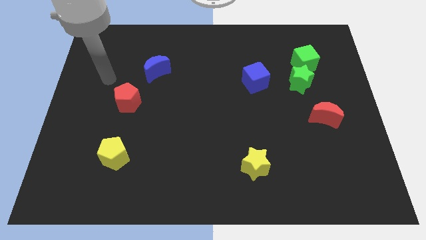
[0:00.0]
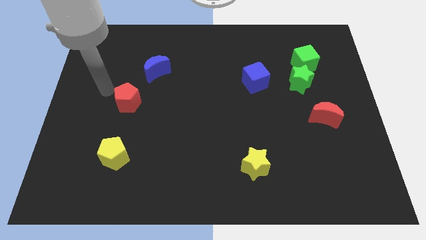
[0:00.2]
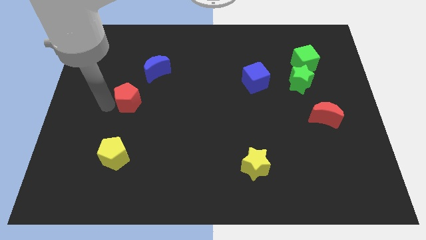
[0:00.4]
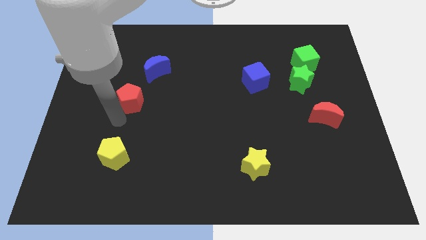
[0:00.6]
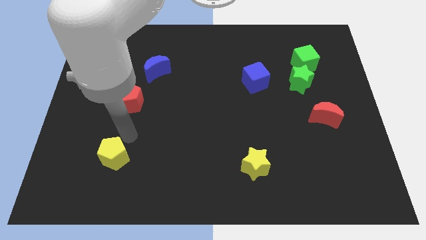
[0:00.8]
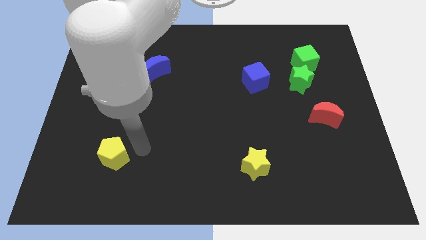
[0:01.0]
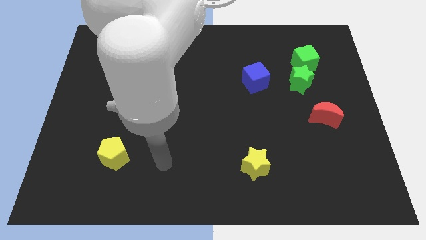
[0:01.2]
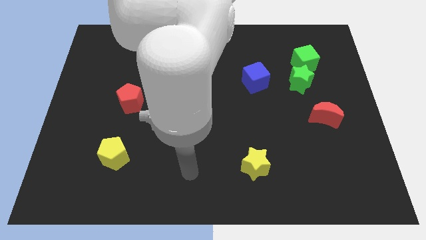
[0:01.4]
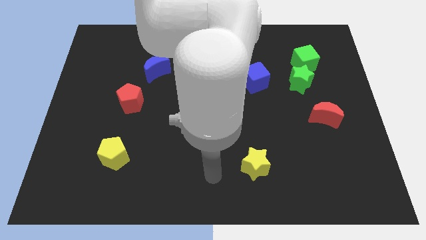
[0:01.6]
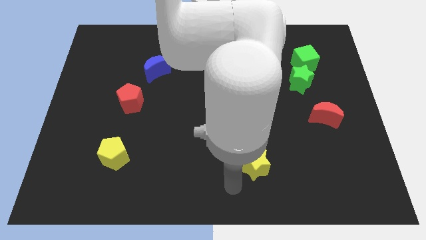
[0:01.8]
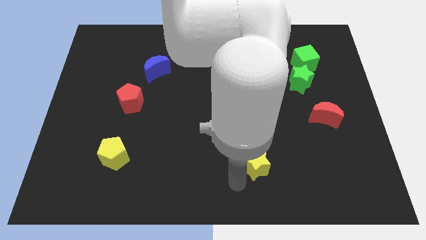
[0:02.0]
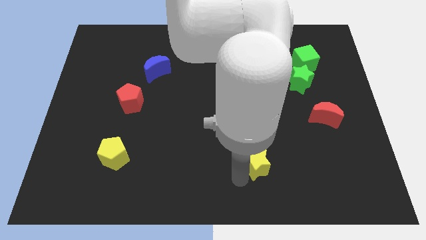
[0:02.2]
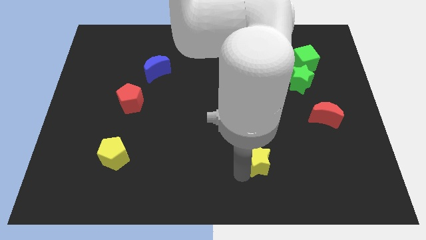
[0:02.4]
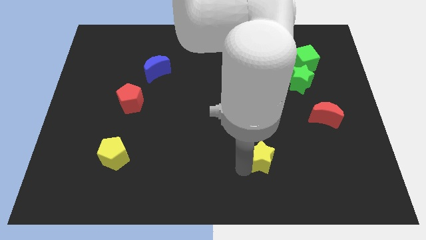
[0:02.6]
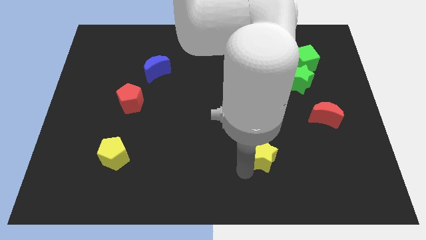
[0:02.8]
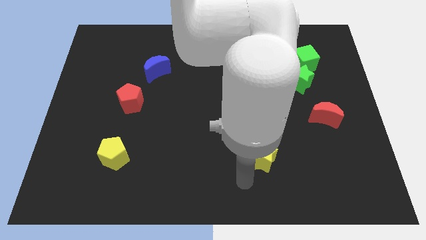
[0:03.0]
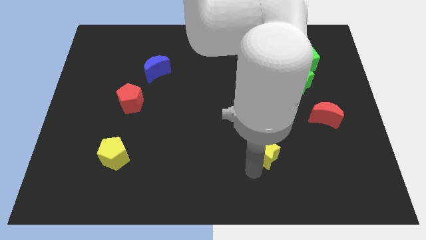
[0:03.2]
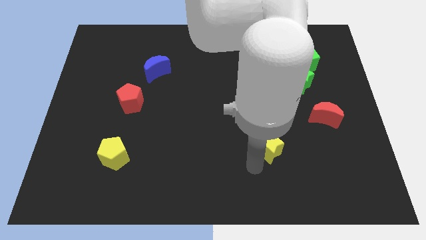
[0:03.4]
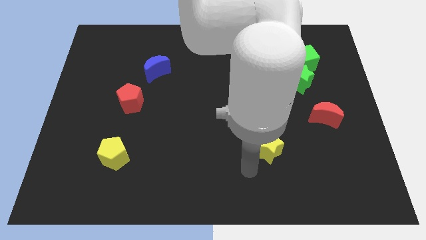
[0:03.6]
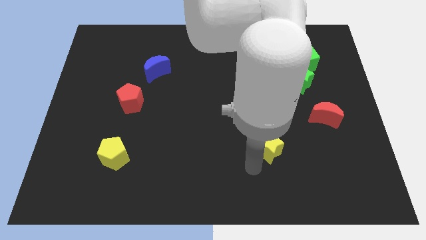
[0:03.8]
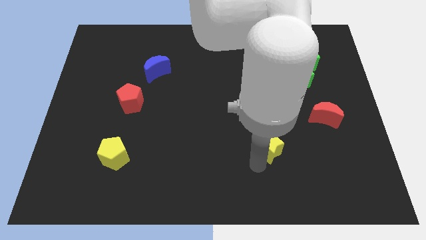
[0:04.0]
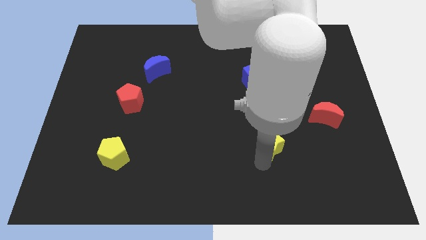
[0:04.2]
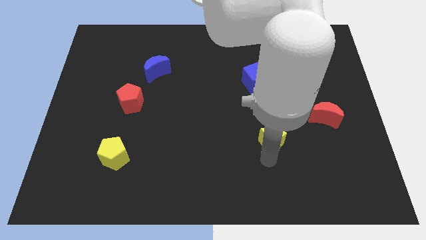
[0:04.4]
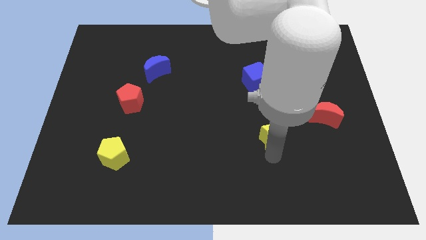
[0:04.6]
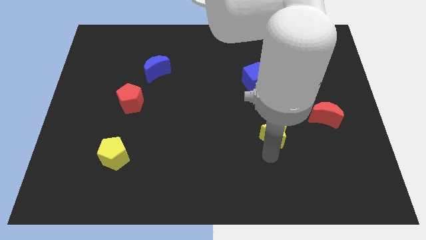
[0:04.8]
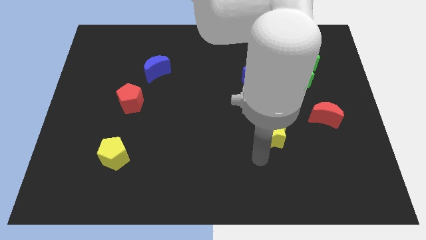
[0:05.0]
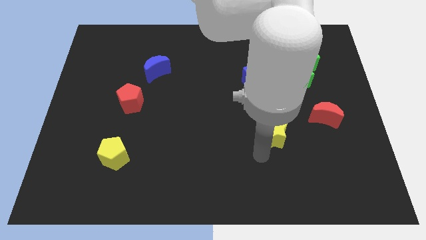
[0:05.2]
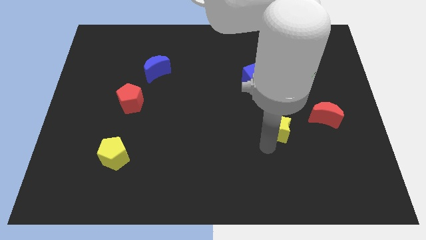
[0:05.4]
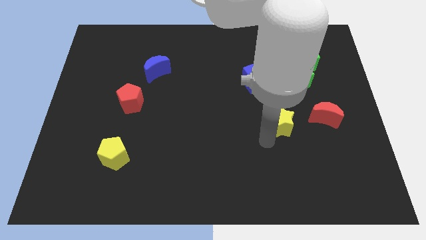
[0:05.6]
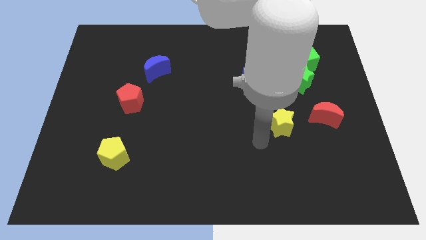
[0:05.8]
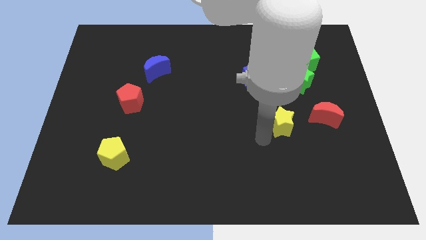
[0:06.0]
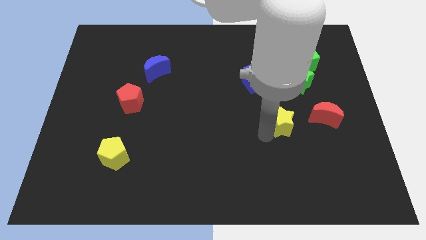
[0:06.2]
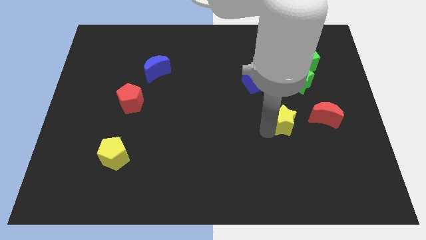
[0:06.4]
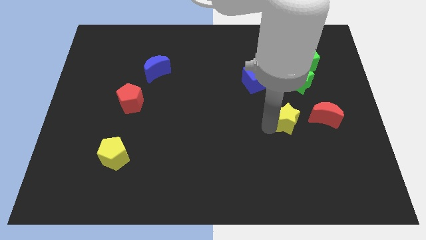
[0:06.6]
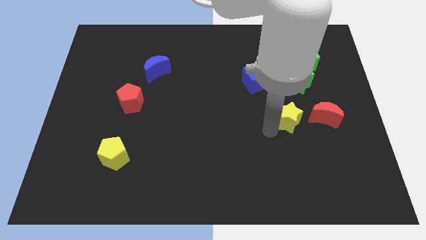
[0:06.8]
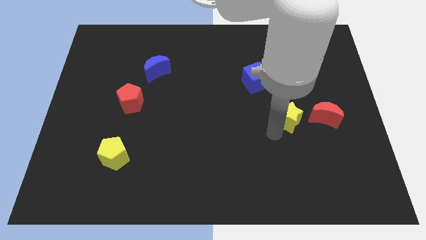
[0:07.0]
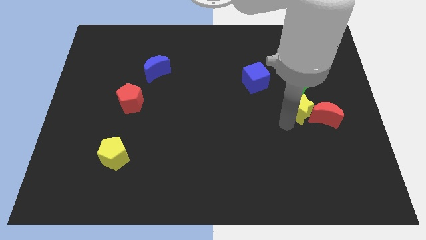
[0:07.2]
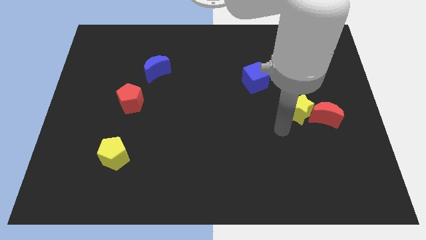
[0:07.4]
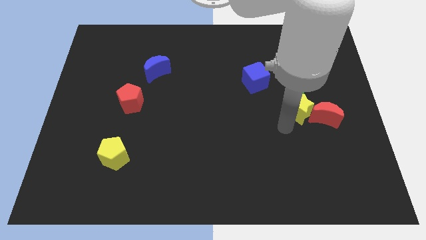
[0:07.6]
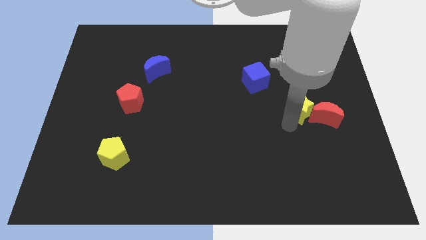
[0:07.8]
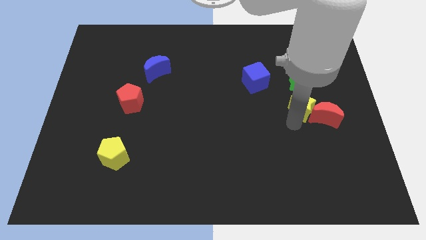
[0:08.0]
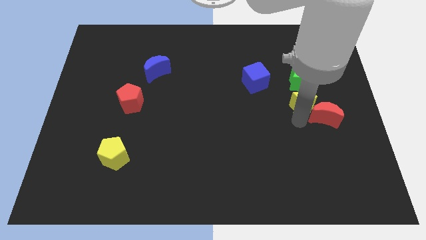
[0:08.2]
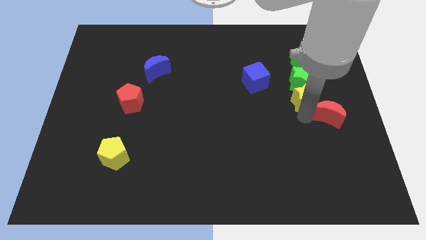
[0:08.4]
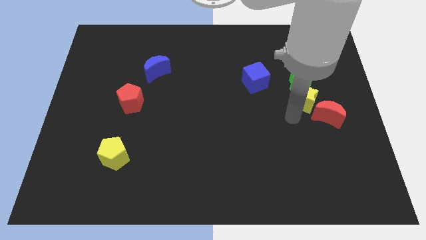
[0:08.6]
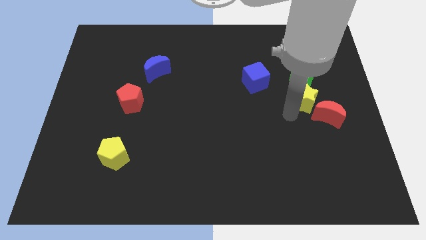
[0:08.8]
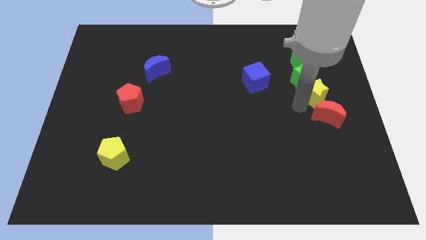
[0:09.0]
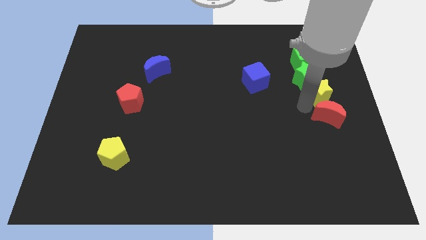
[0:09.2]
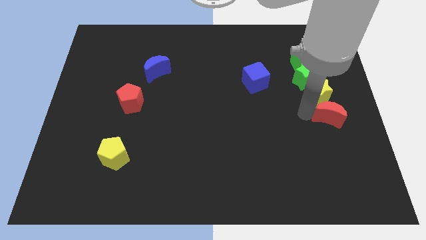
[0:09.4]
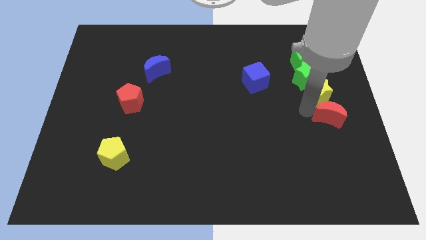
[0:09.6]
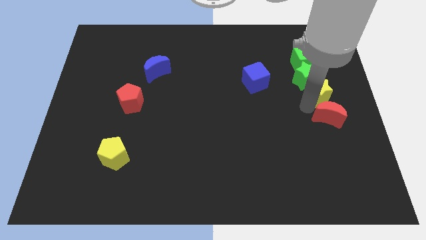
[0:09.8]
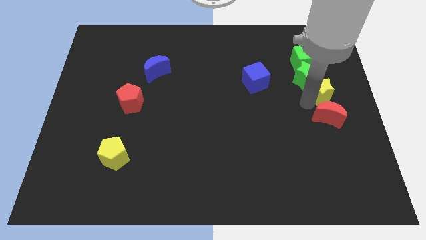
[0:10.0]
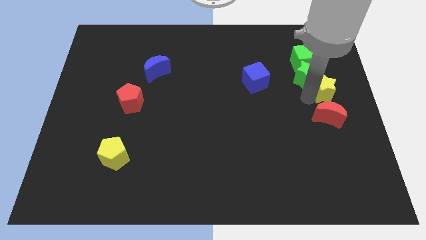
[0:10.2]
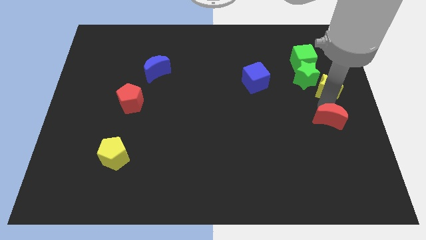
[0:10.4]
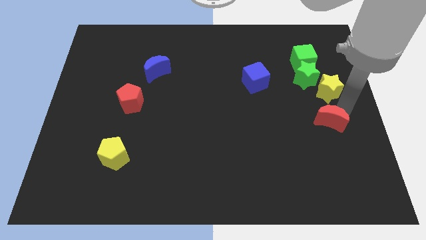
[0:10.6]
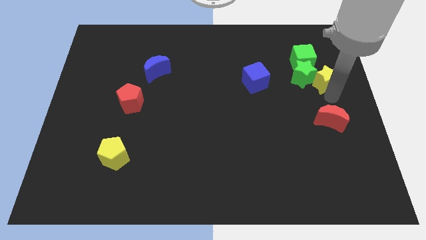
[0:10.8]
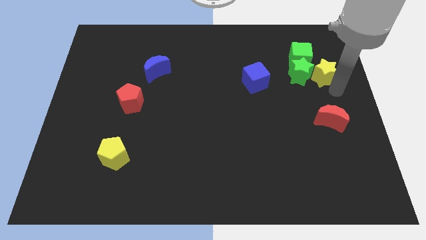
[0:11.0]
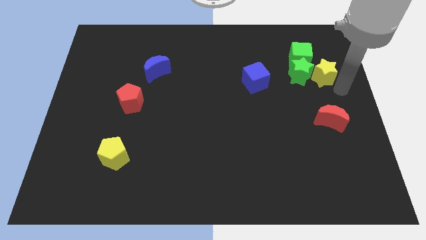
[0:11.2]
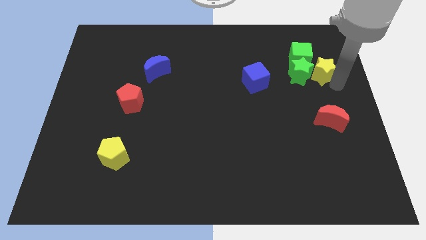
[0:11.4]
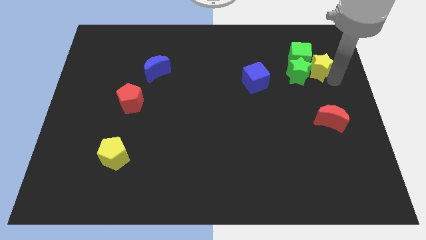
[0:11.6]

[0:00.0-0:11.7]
push the yellow star close to the green cube
